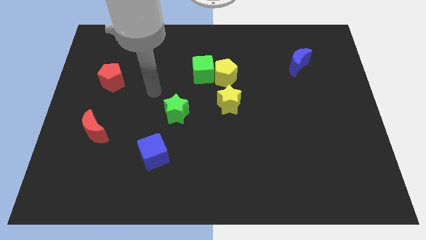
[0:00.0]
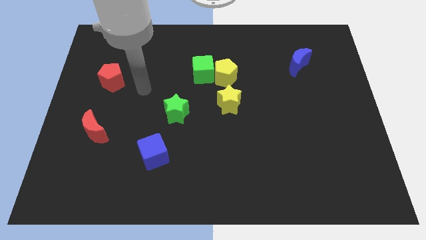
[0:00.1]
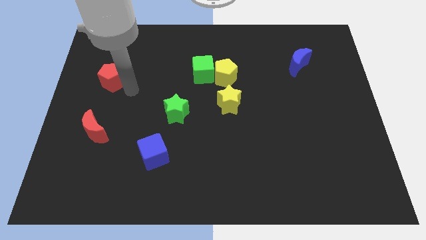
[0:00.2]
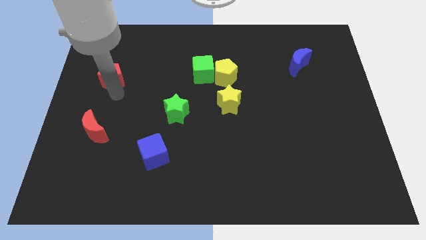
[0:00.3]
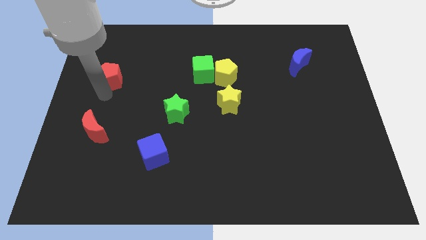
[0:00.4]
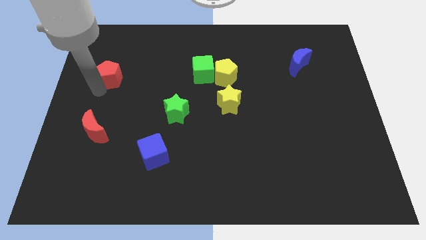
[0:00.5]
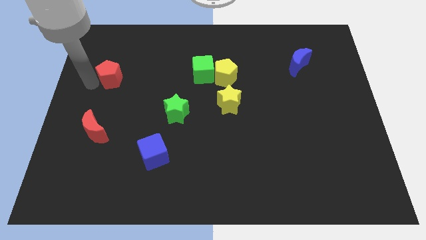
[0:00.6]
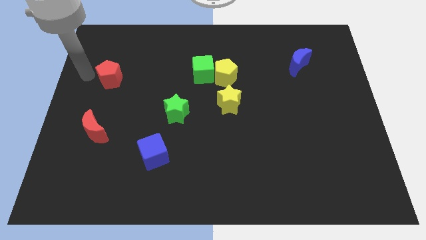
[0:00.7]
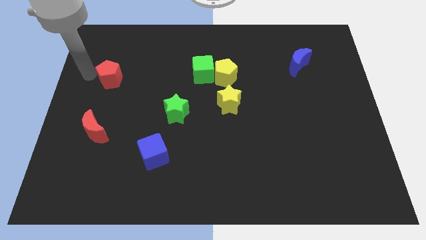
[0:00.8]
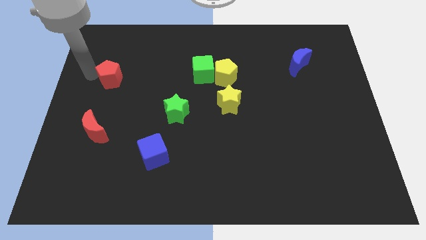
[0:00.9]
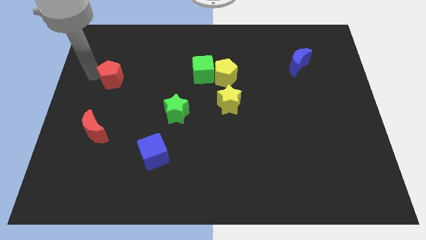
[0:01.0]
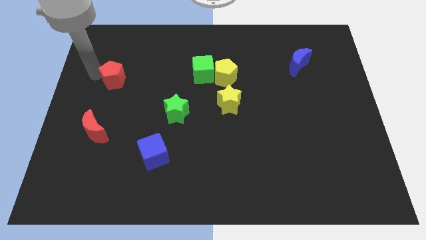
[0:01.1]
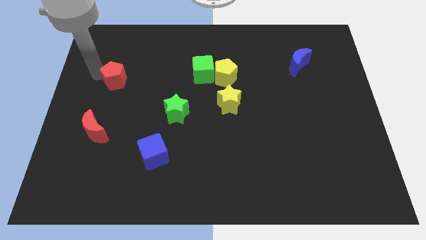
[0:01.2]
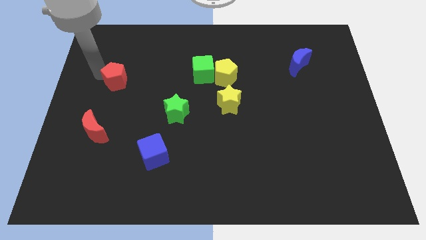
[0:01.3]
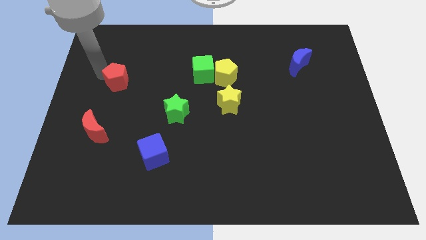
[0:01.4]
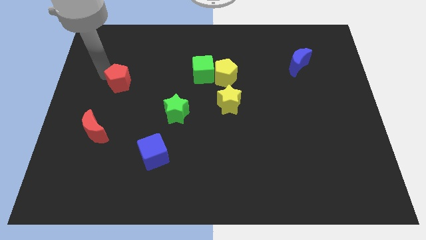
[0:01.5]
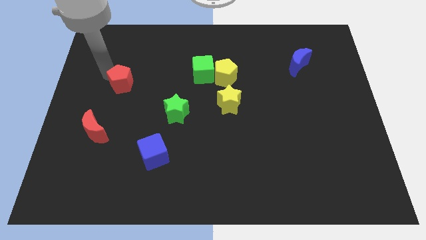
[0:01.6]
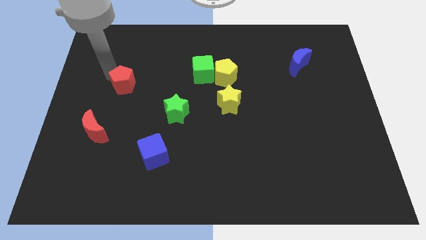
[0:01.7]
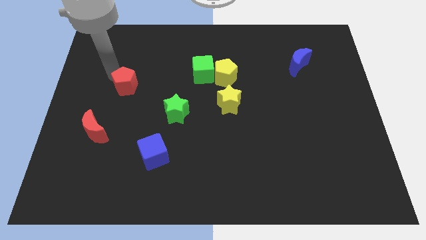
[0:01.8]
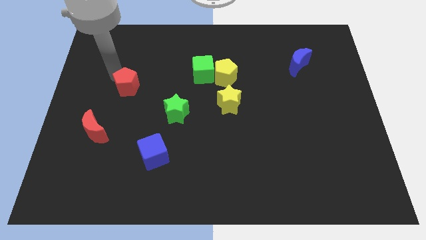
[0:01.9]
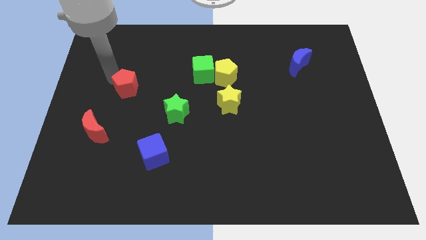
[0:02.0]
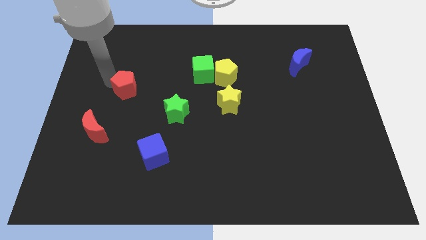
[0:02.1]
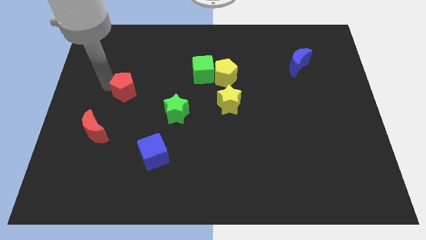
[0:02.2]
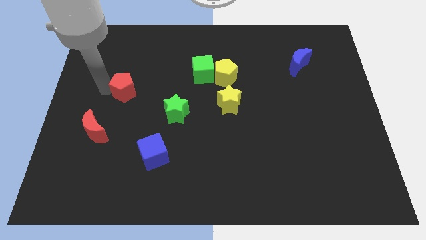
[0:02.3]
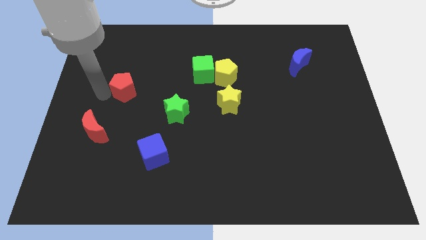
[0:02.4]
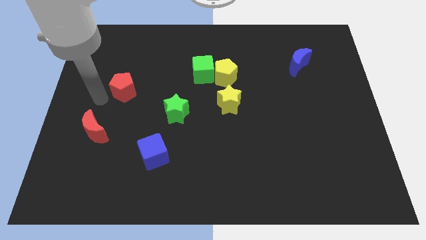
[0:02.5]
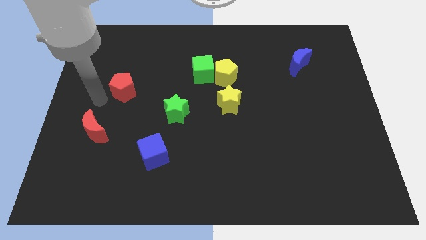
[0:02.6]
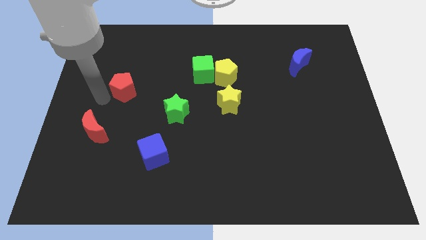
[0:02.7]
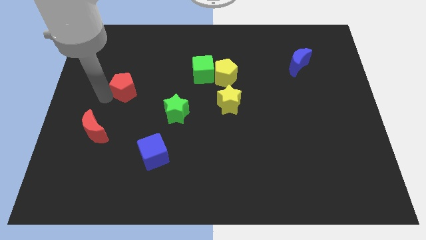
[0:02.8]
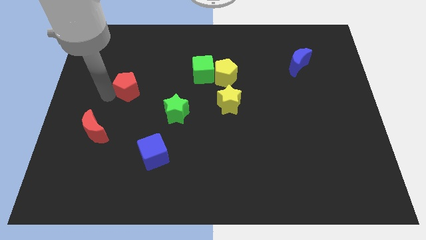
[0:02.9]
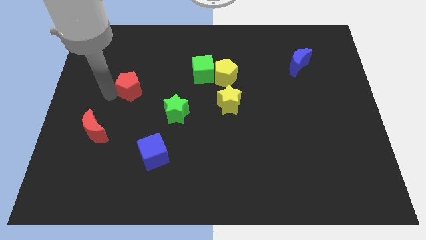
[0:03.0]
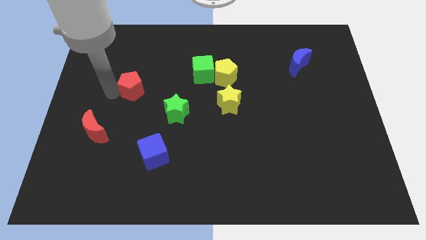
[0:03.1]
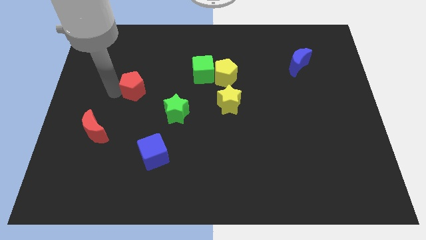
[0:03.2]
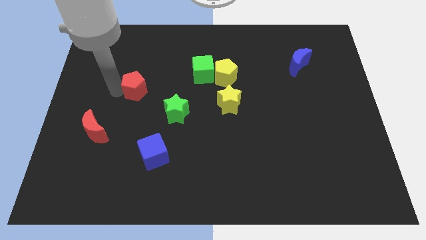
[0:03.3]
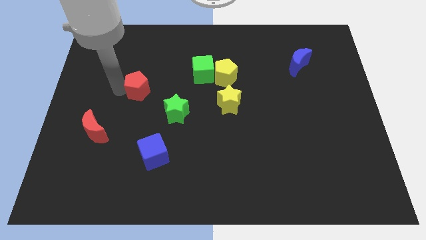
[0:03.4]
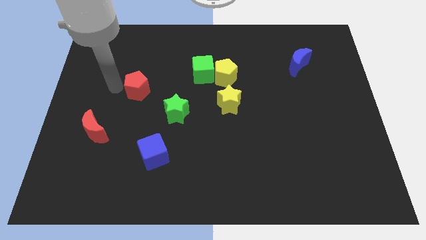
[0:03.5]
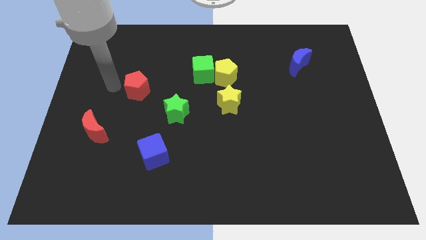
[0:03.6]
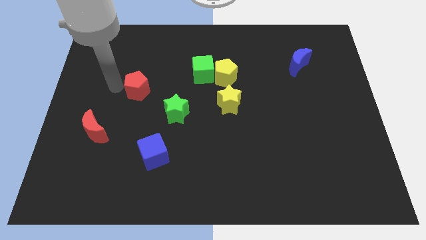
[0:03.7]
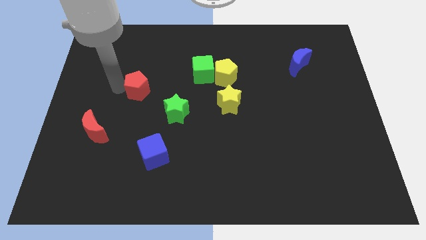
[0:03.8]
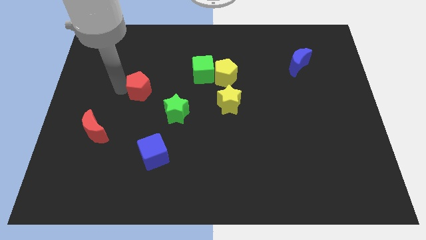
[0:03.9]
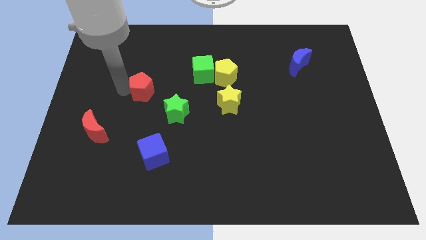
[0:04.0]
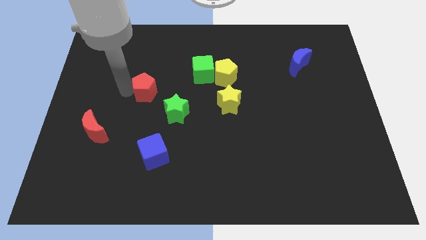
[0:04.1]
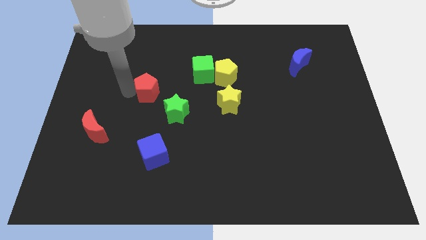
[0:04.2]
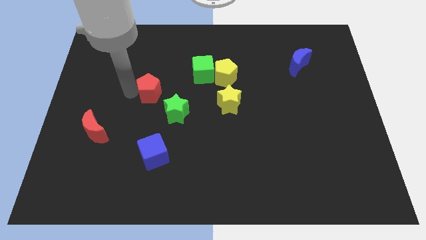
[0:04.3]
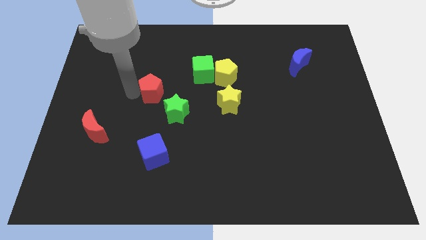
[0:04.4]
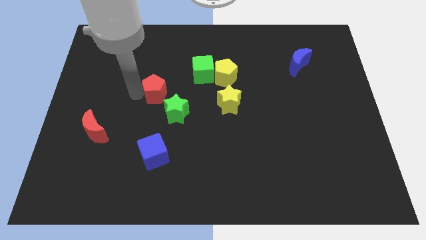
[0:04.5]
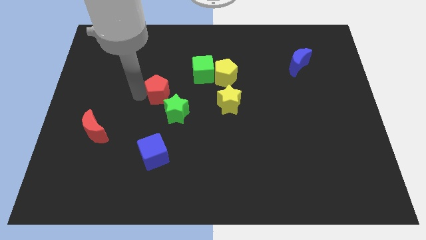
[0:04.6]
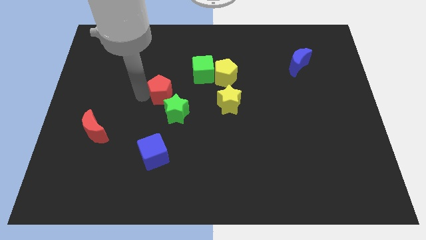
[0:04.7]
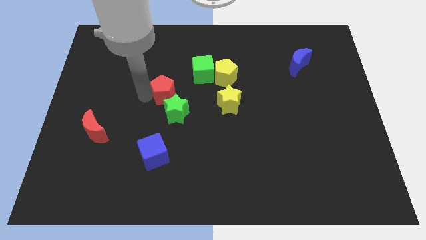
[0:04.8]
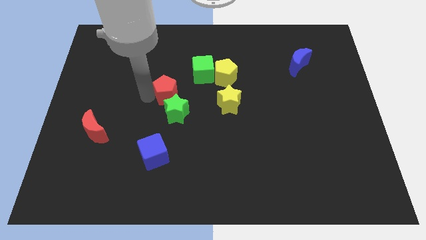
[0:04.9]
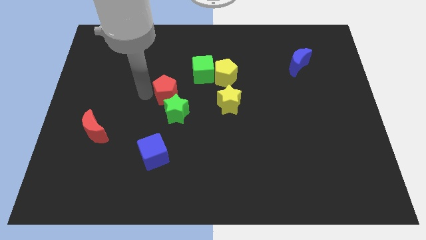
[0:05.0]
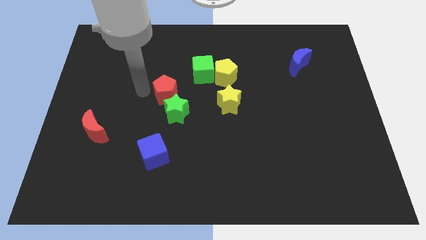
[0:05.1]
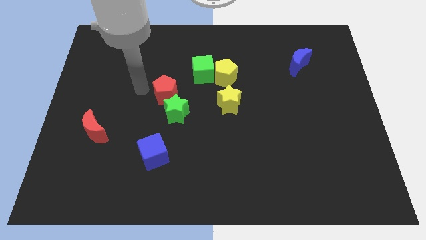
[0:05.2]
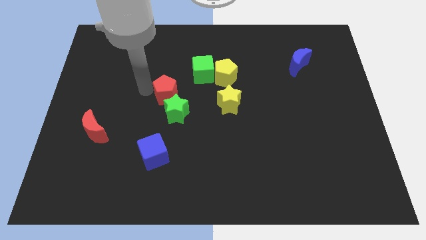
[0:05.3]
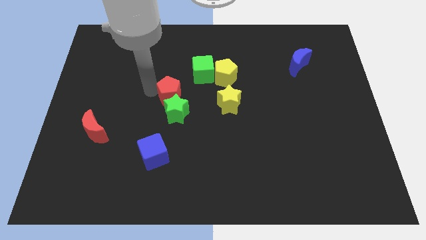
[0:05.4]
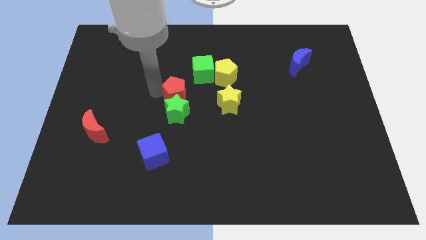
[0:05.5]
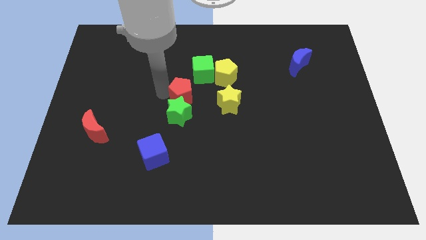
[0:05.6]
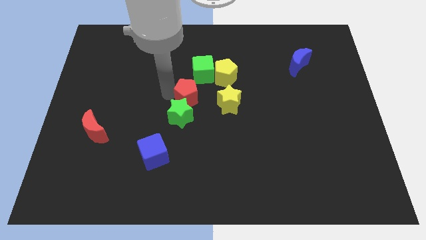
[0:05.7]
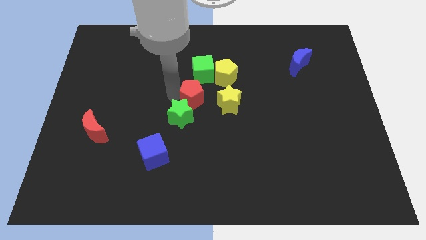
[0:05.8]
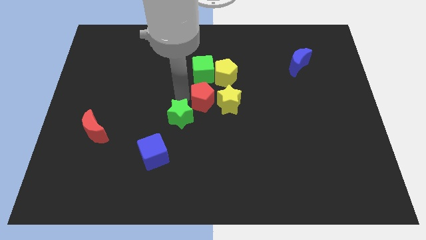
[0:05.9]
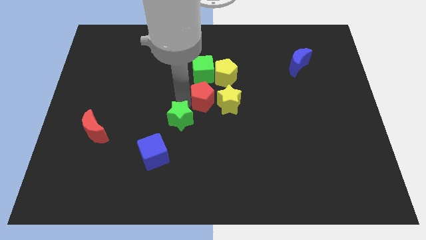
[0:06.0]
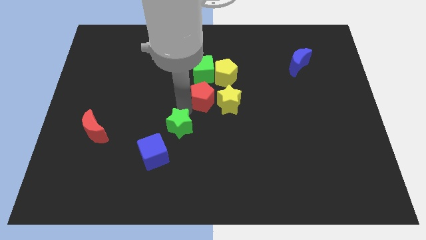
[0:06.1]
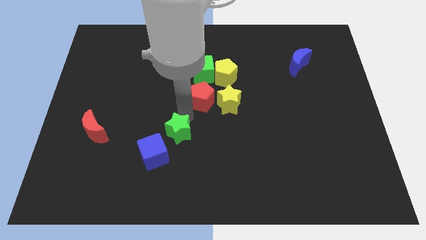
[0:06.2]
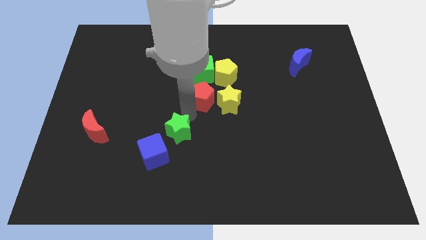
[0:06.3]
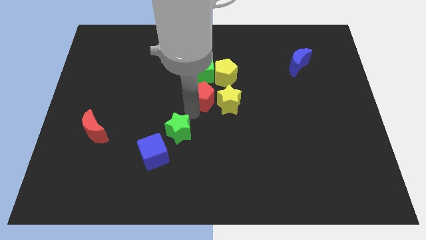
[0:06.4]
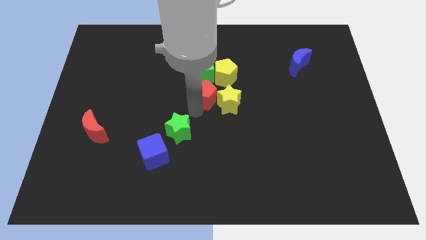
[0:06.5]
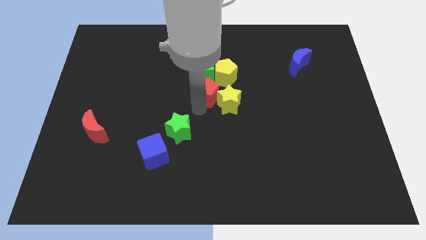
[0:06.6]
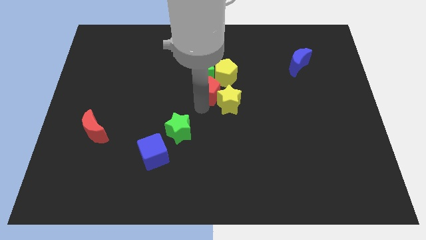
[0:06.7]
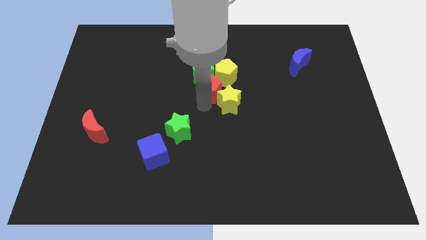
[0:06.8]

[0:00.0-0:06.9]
move the red pentagon next to the yellow pentagon

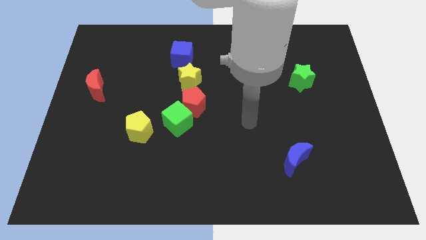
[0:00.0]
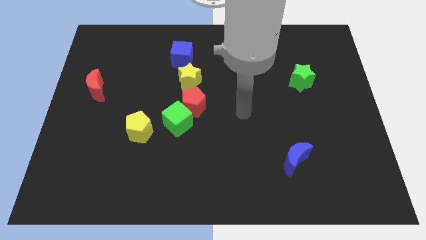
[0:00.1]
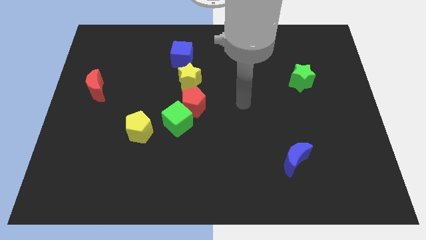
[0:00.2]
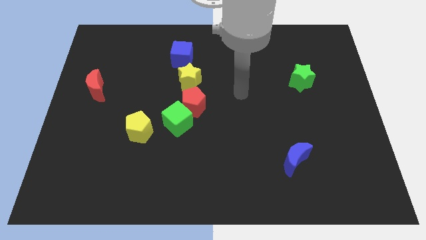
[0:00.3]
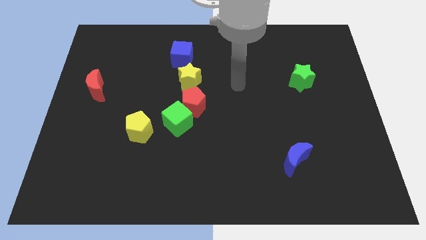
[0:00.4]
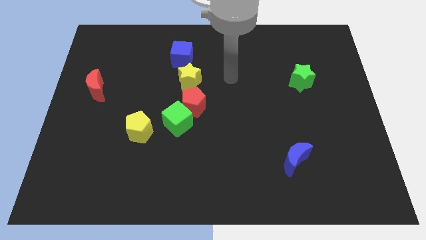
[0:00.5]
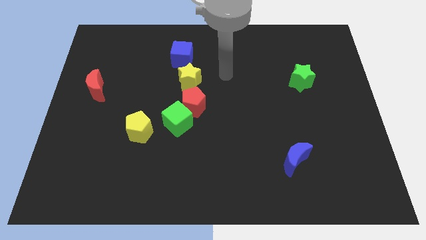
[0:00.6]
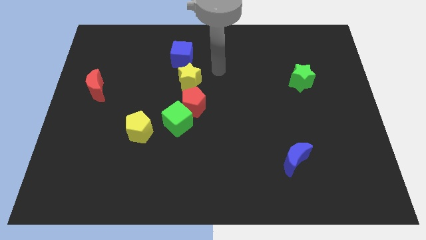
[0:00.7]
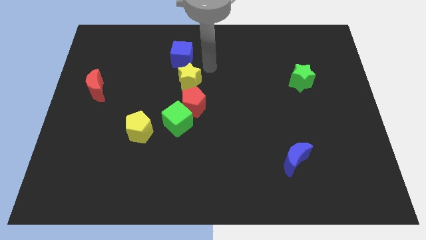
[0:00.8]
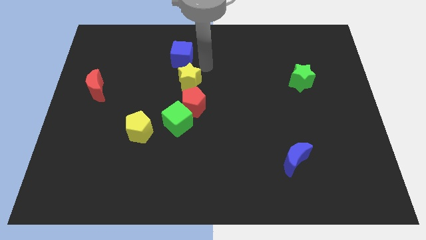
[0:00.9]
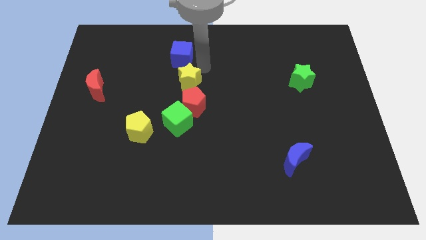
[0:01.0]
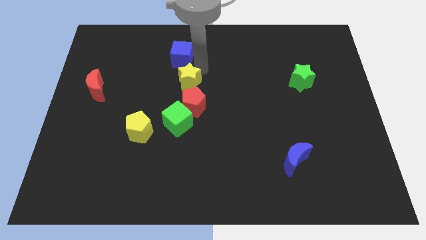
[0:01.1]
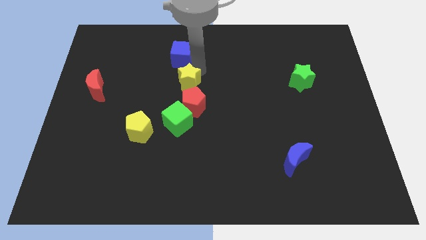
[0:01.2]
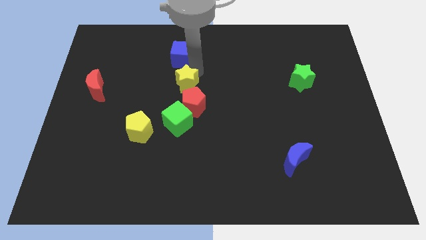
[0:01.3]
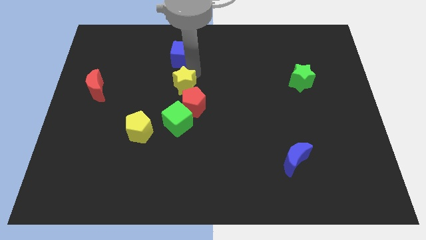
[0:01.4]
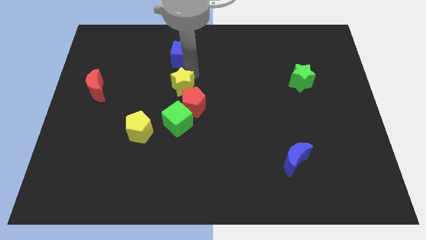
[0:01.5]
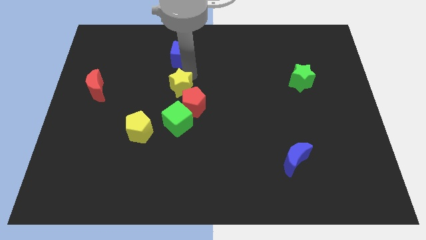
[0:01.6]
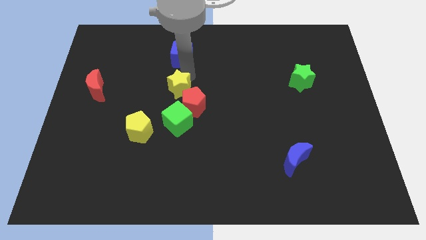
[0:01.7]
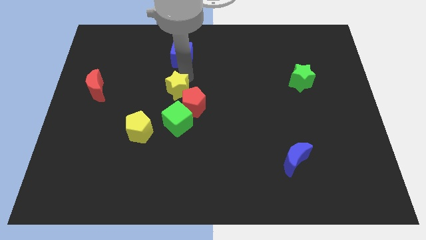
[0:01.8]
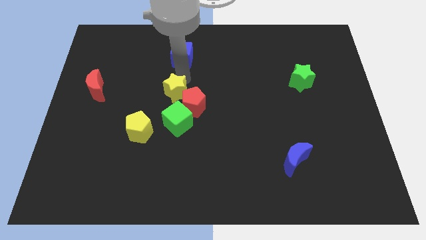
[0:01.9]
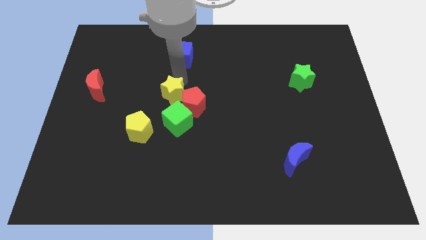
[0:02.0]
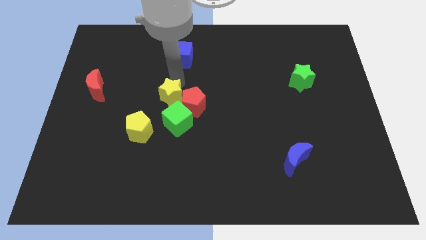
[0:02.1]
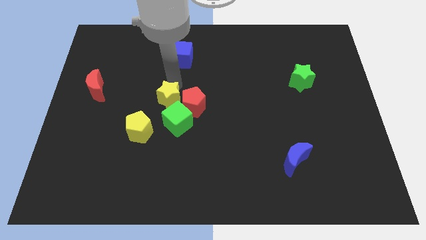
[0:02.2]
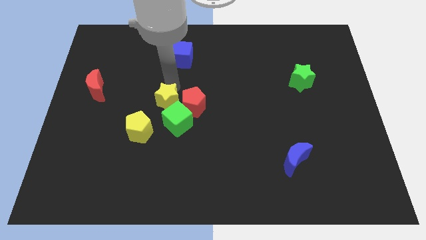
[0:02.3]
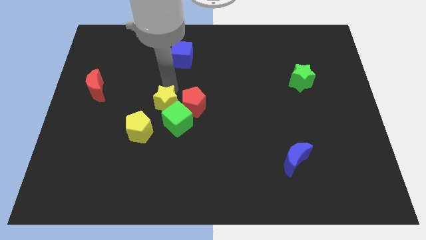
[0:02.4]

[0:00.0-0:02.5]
slide the yellow star close to the green cube
